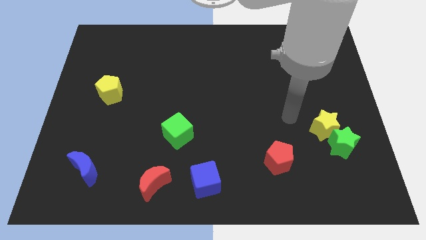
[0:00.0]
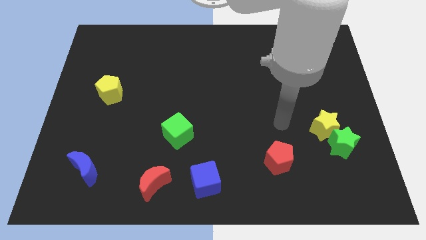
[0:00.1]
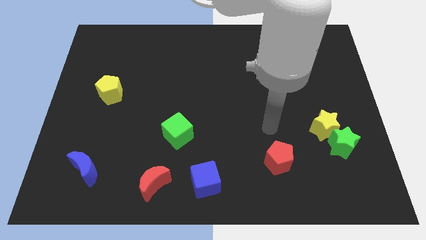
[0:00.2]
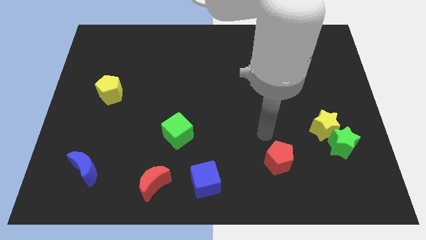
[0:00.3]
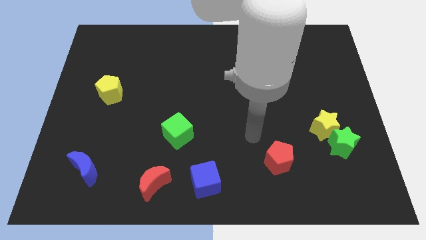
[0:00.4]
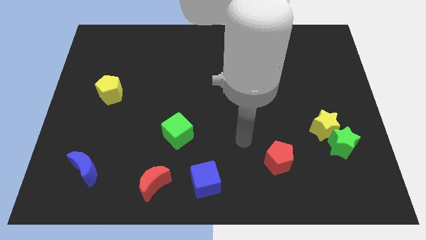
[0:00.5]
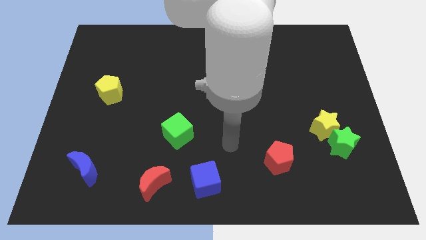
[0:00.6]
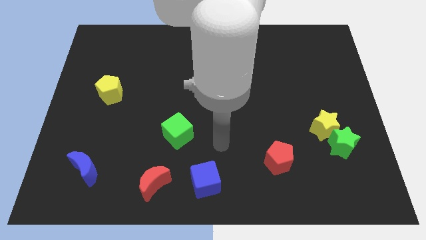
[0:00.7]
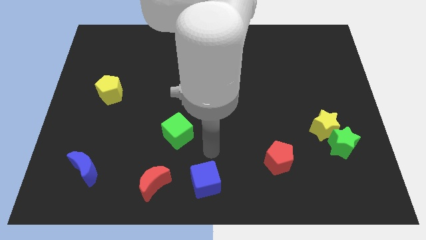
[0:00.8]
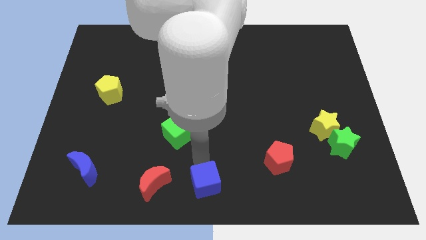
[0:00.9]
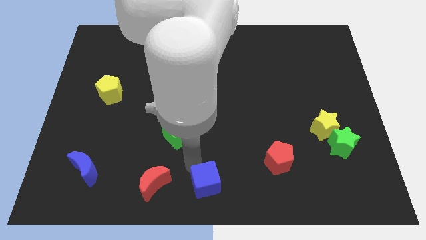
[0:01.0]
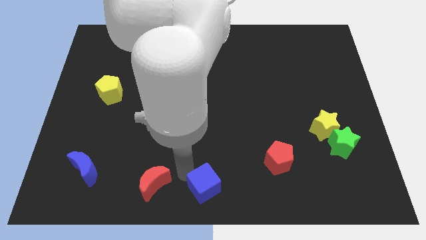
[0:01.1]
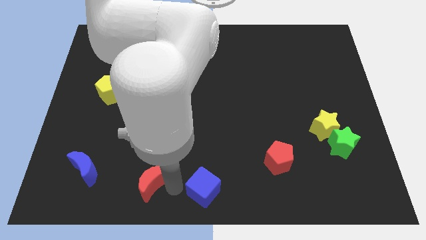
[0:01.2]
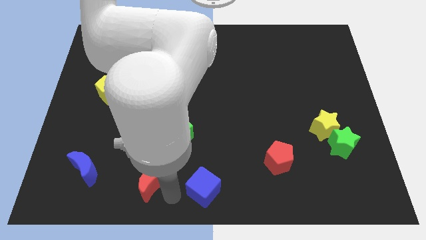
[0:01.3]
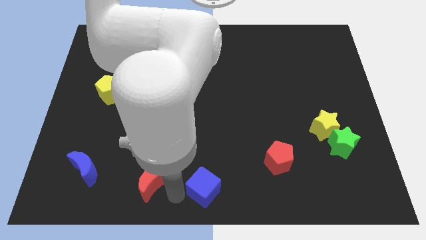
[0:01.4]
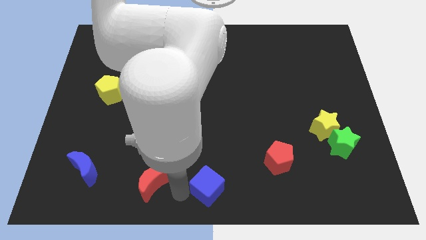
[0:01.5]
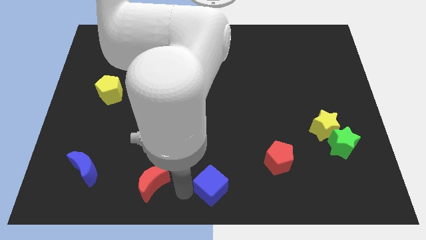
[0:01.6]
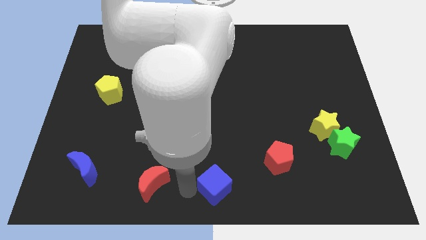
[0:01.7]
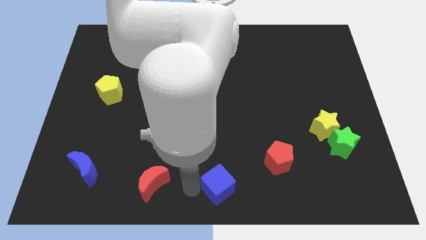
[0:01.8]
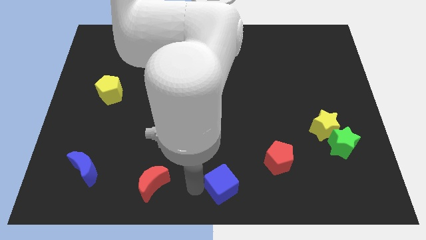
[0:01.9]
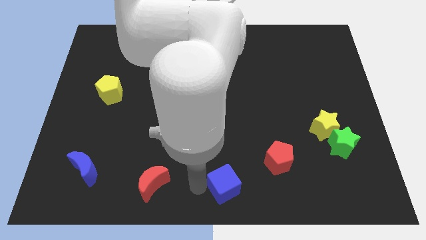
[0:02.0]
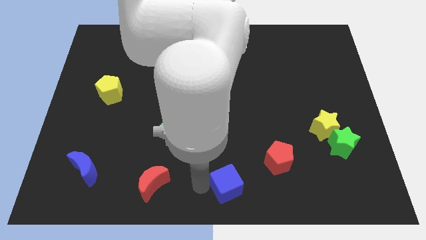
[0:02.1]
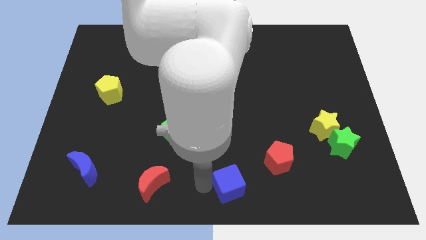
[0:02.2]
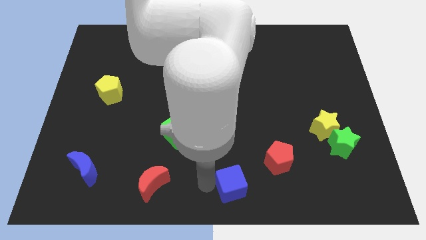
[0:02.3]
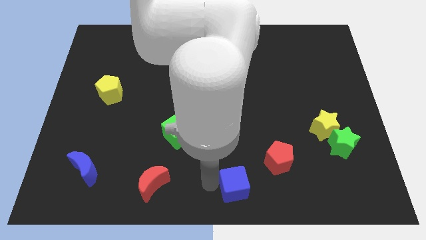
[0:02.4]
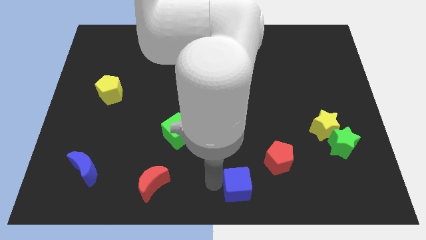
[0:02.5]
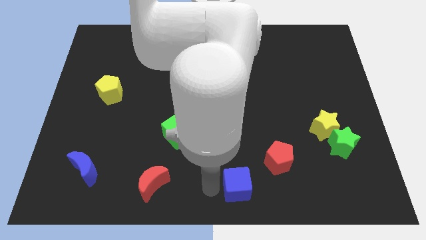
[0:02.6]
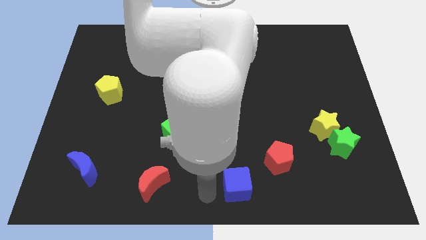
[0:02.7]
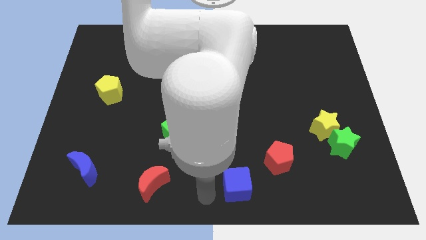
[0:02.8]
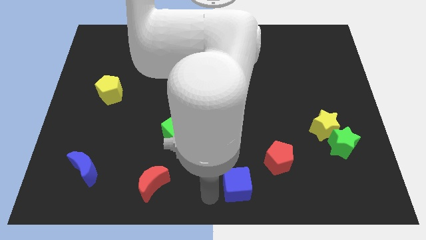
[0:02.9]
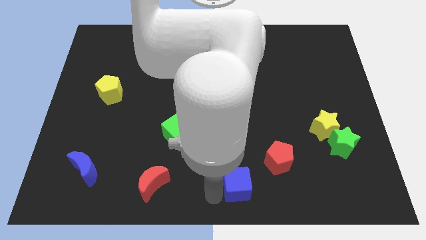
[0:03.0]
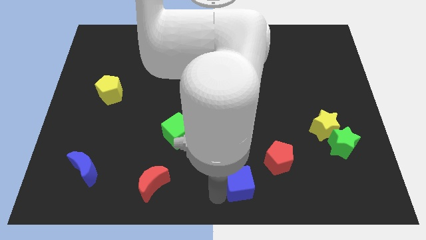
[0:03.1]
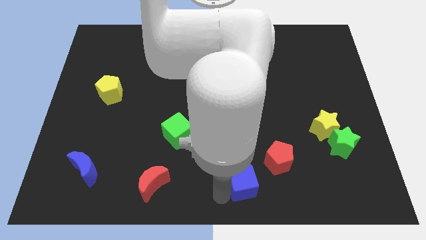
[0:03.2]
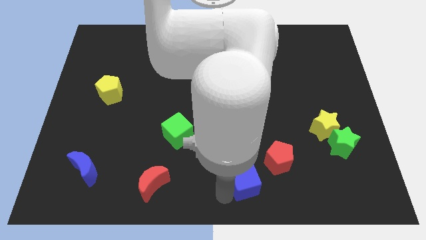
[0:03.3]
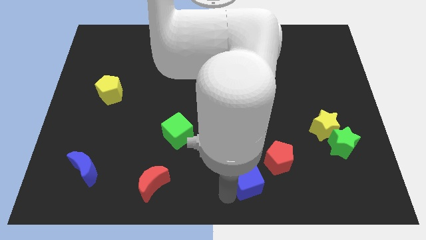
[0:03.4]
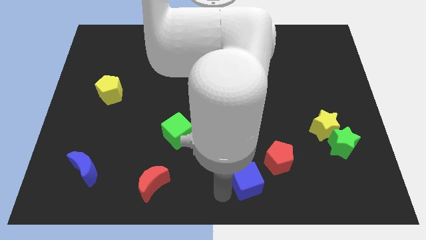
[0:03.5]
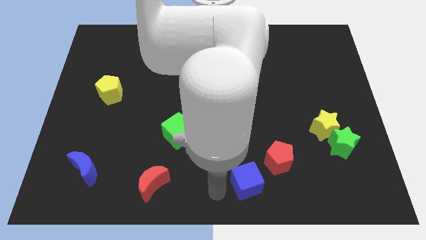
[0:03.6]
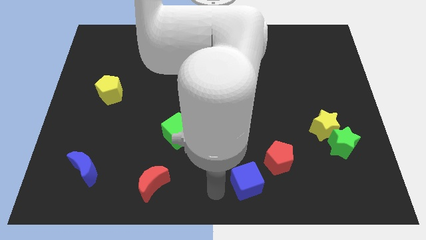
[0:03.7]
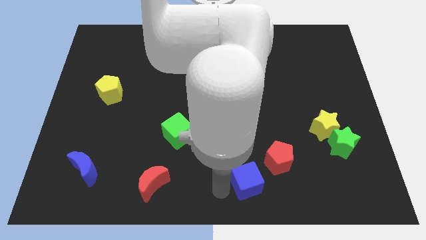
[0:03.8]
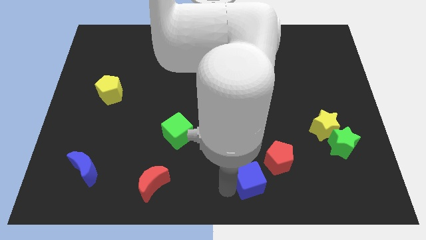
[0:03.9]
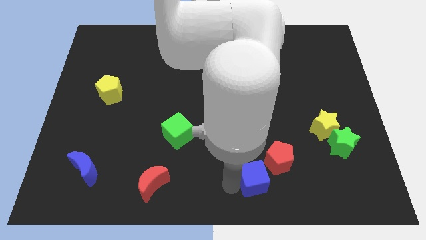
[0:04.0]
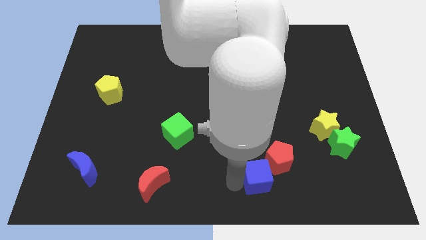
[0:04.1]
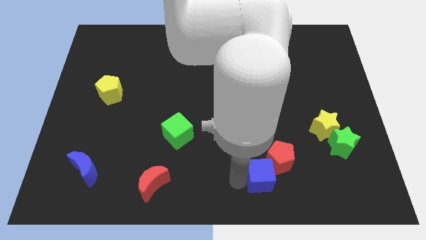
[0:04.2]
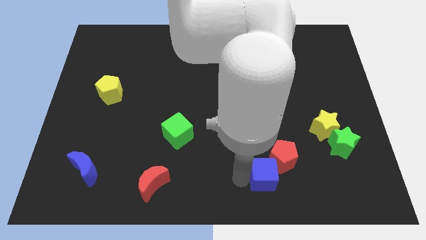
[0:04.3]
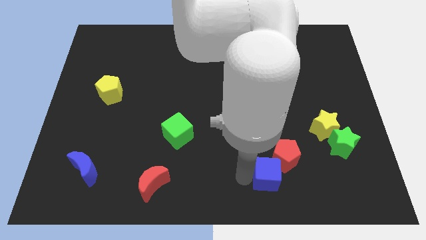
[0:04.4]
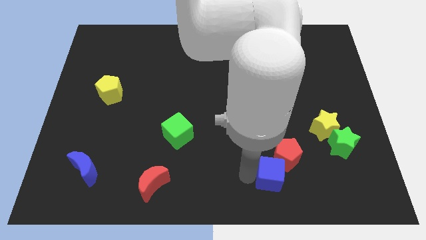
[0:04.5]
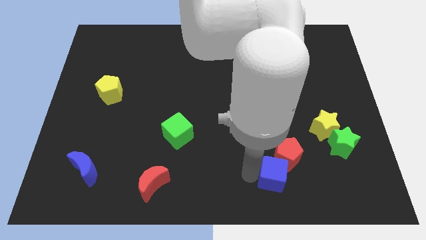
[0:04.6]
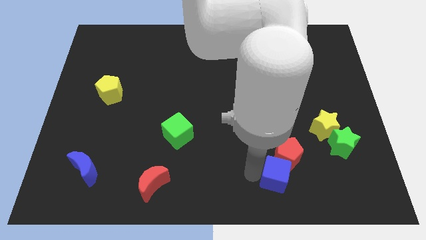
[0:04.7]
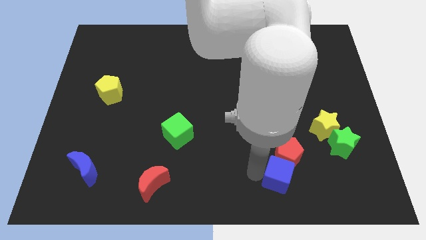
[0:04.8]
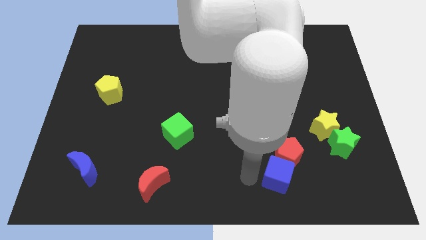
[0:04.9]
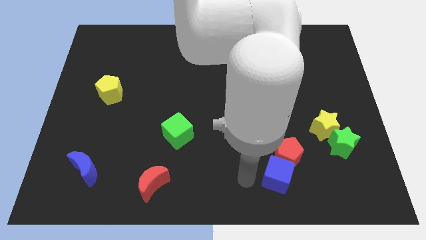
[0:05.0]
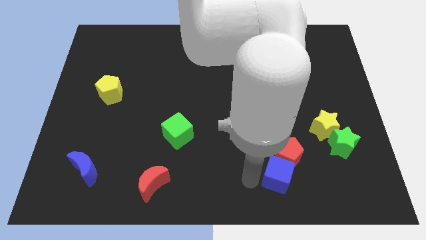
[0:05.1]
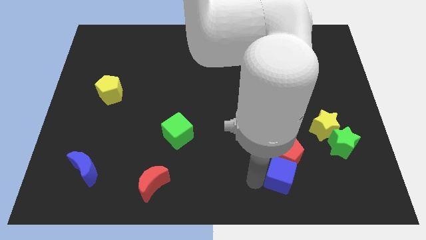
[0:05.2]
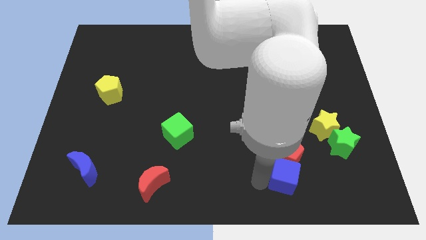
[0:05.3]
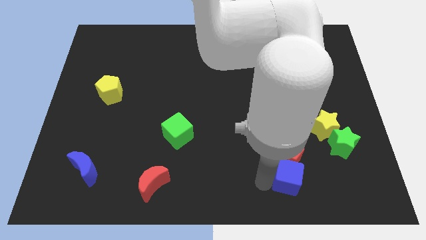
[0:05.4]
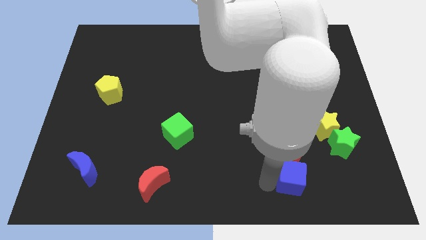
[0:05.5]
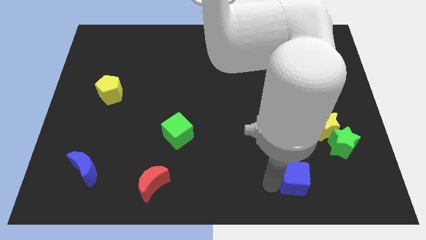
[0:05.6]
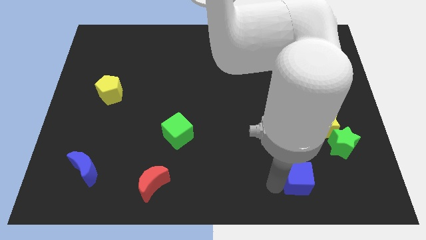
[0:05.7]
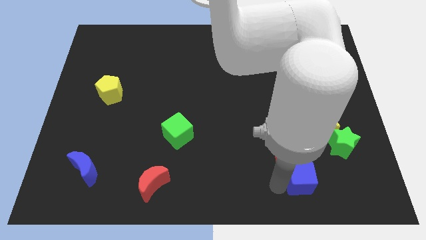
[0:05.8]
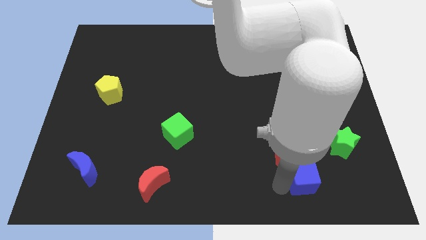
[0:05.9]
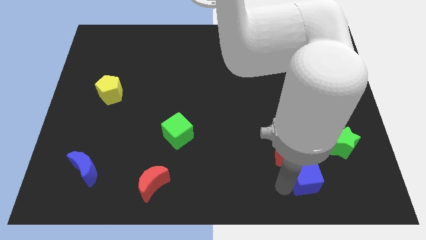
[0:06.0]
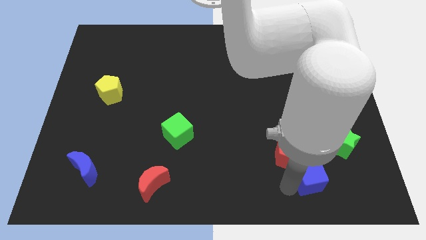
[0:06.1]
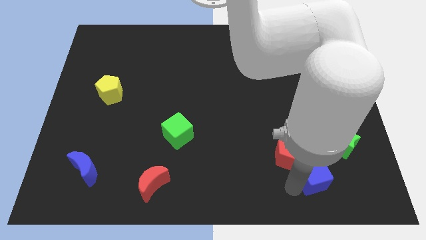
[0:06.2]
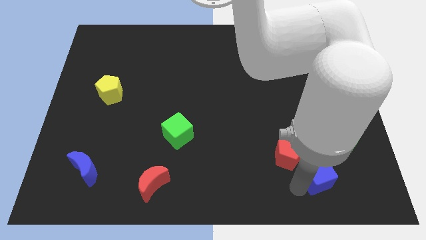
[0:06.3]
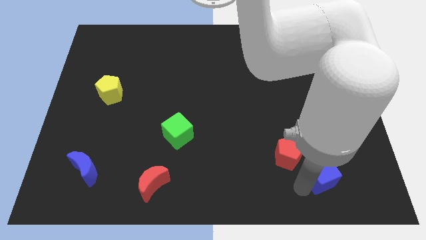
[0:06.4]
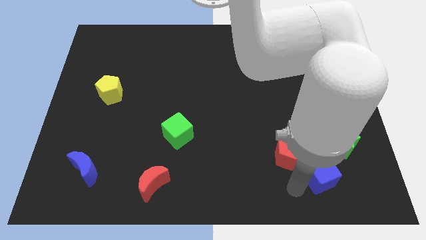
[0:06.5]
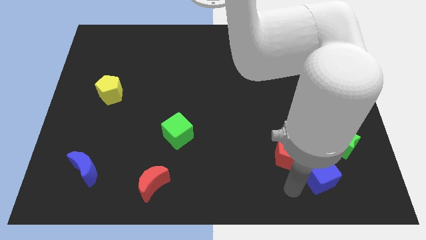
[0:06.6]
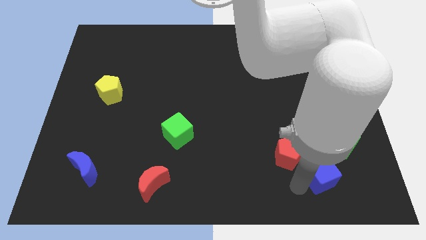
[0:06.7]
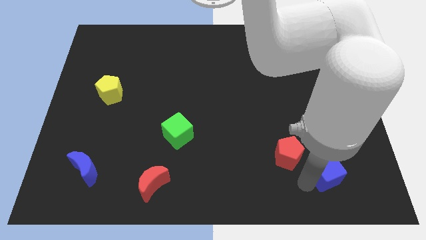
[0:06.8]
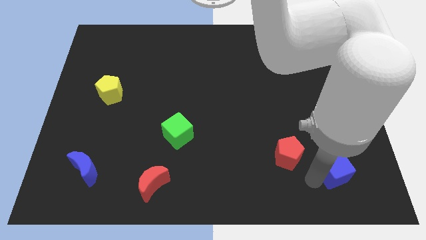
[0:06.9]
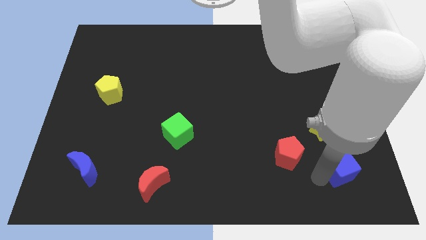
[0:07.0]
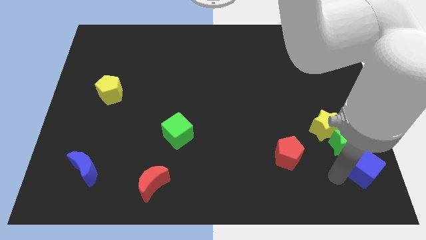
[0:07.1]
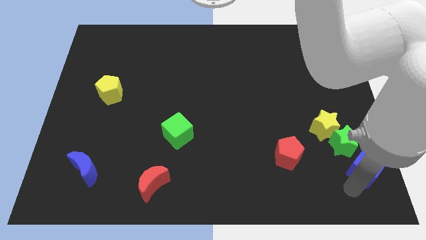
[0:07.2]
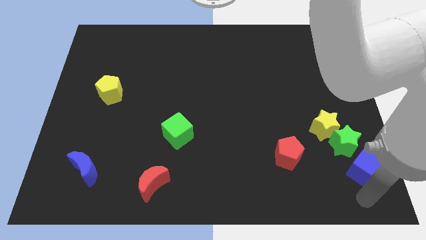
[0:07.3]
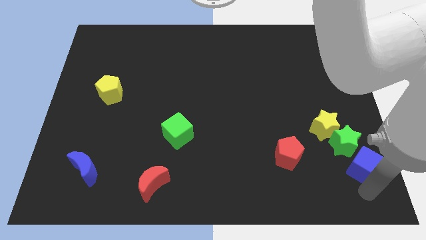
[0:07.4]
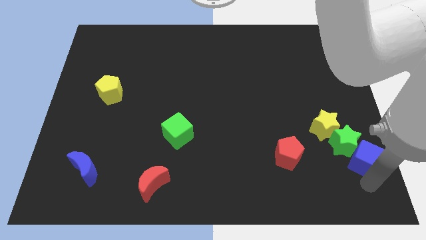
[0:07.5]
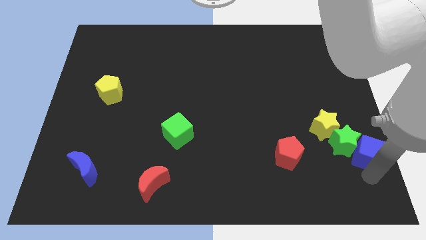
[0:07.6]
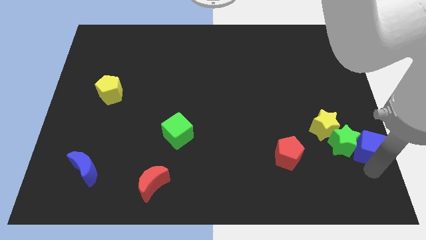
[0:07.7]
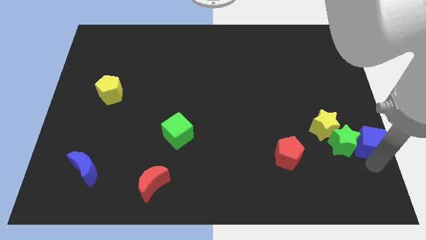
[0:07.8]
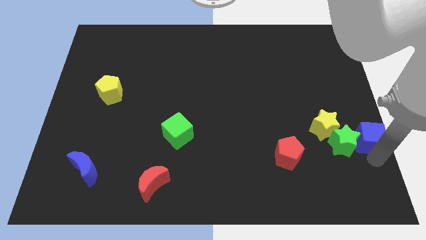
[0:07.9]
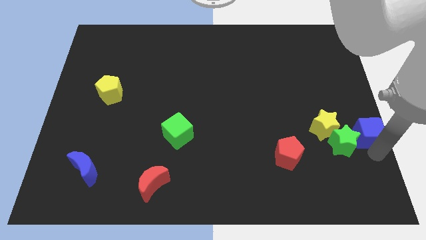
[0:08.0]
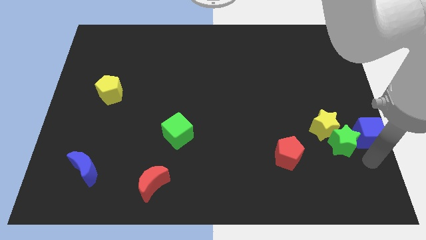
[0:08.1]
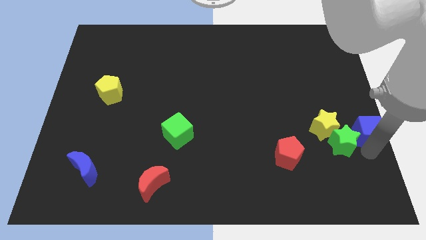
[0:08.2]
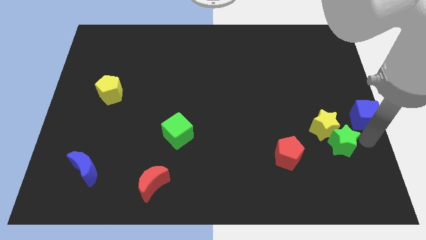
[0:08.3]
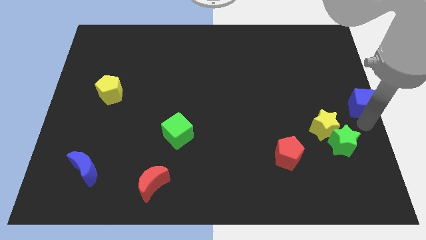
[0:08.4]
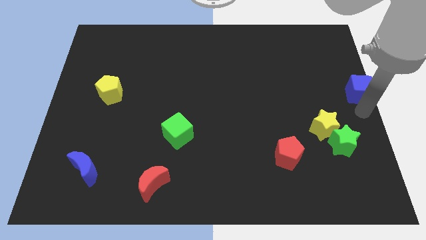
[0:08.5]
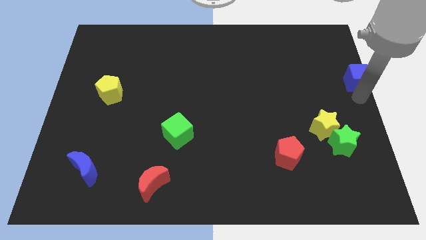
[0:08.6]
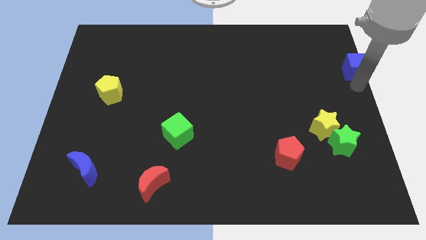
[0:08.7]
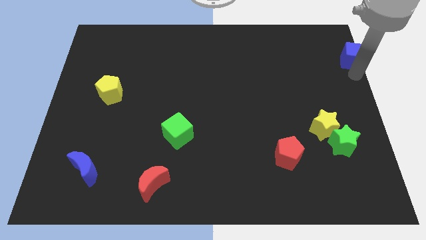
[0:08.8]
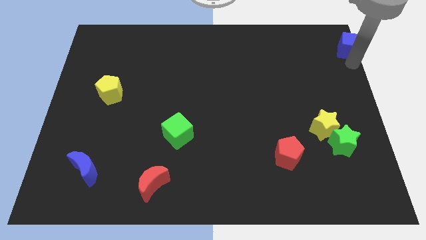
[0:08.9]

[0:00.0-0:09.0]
put the blue cube to the upper right corner
